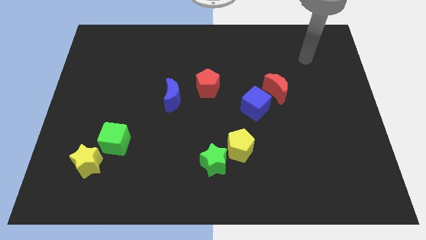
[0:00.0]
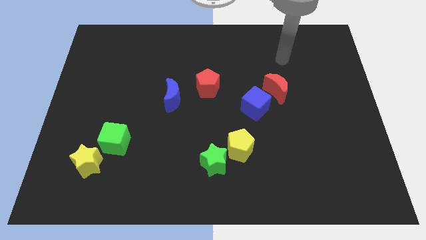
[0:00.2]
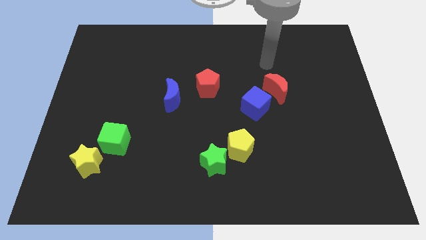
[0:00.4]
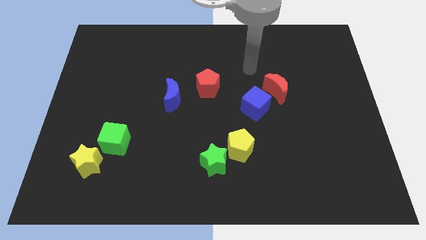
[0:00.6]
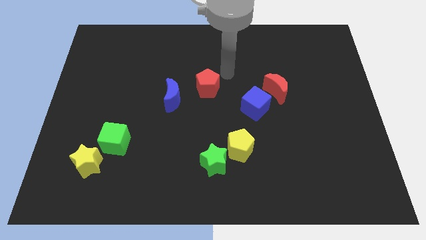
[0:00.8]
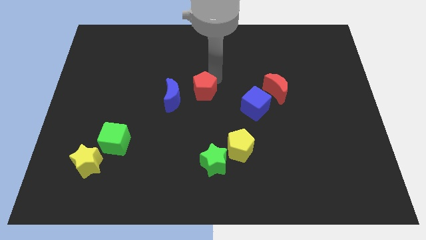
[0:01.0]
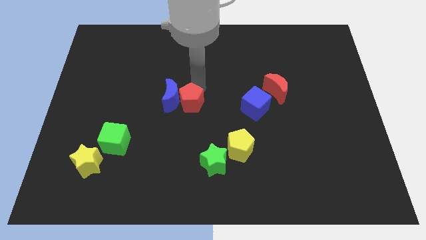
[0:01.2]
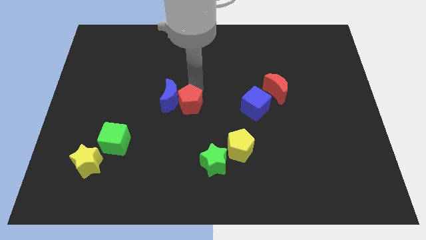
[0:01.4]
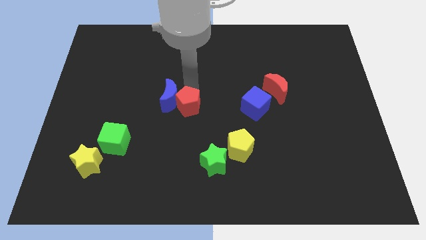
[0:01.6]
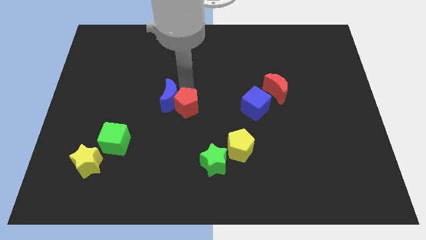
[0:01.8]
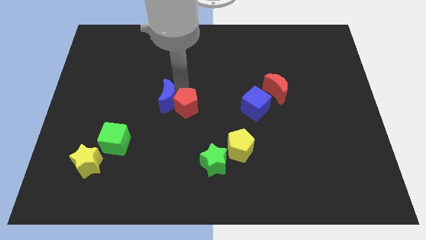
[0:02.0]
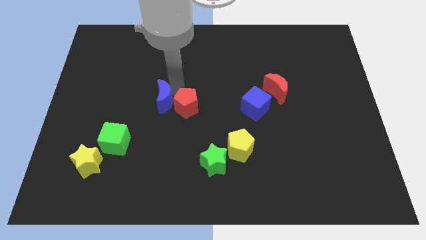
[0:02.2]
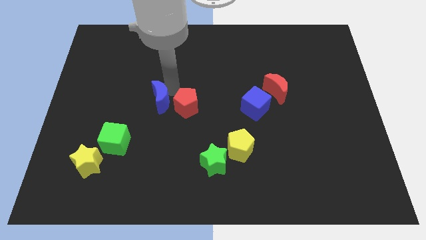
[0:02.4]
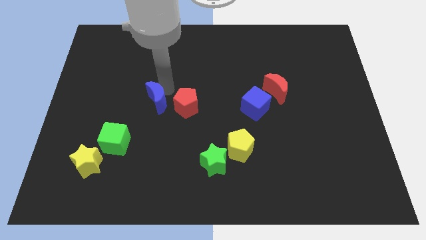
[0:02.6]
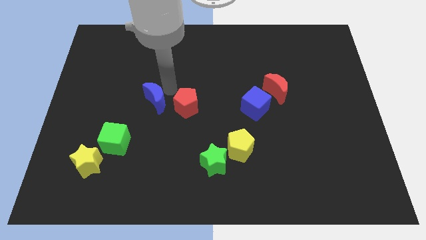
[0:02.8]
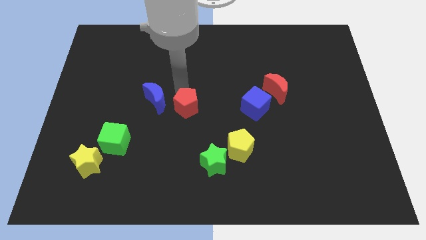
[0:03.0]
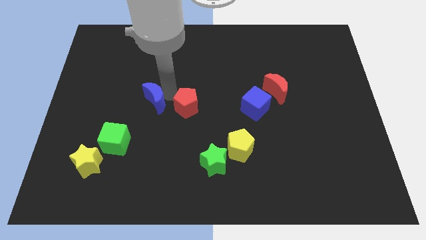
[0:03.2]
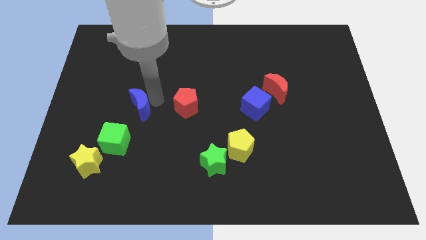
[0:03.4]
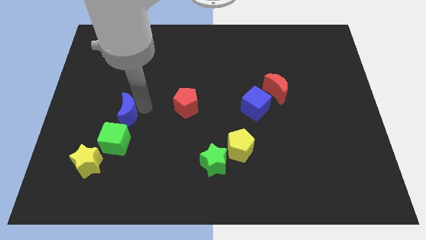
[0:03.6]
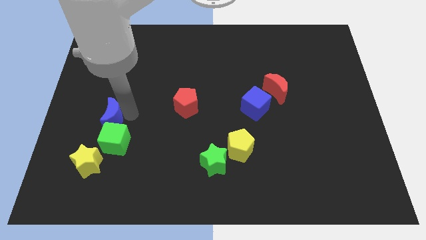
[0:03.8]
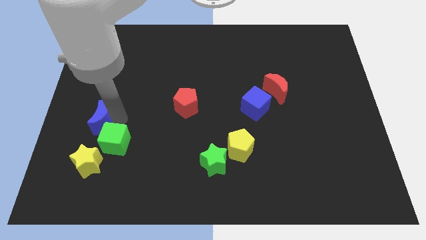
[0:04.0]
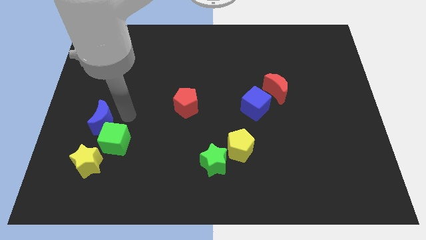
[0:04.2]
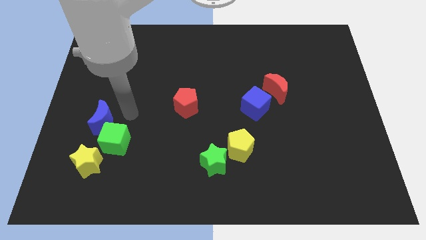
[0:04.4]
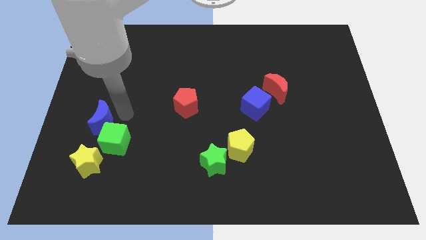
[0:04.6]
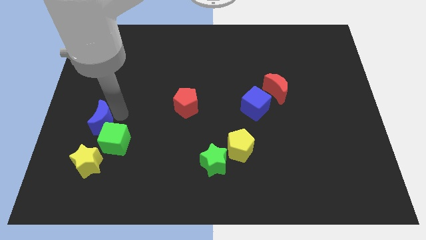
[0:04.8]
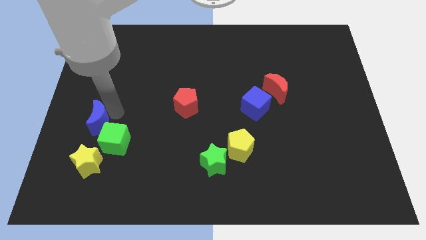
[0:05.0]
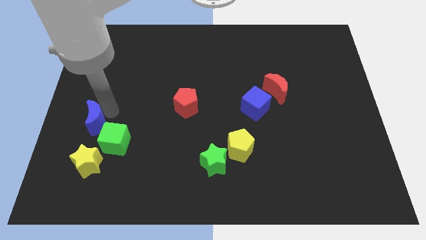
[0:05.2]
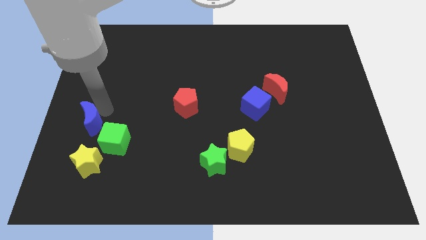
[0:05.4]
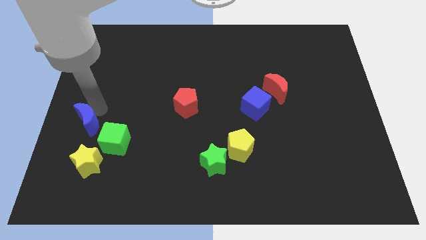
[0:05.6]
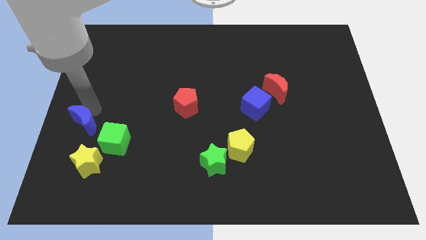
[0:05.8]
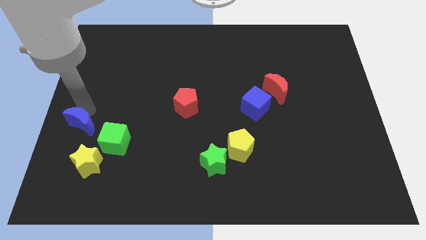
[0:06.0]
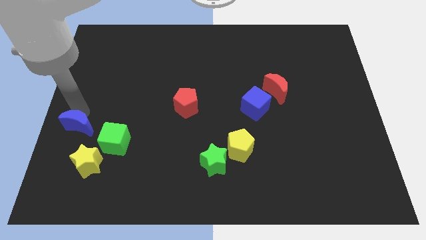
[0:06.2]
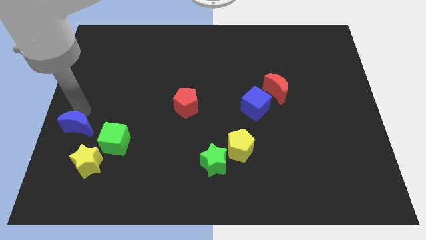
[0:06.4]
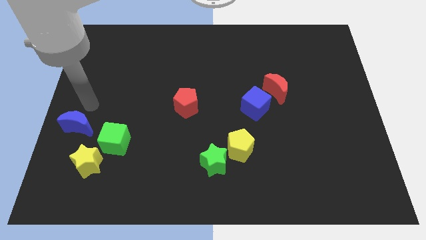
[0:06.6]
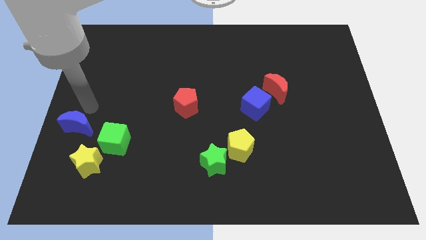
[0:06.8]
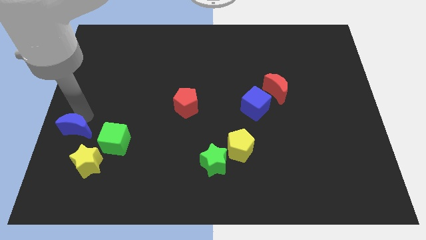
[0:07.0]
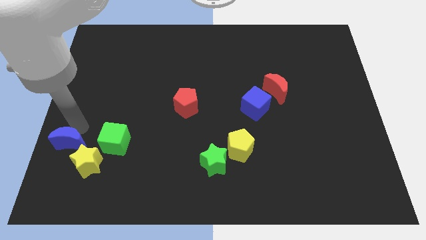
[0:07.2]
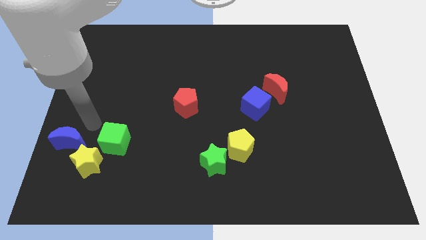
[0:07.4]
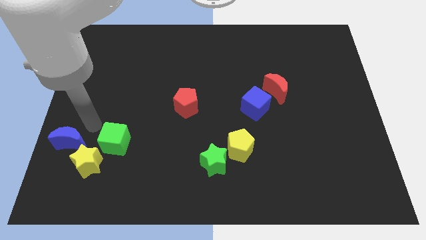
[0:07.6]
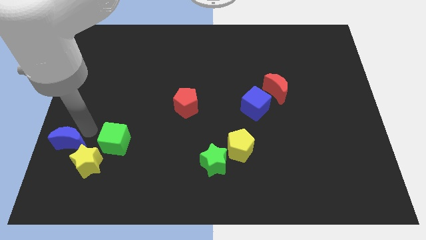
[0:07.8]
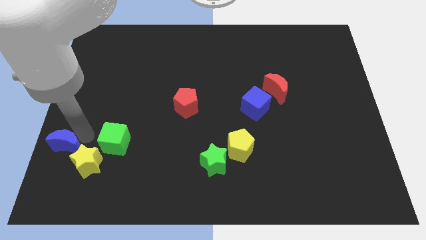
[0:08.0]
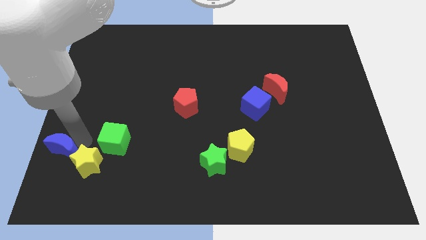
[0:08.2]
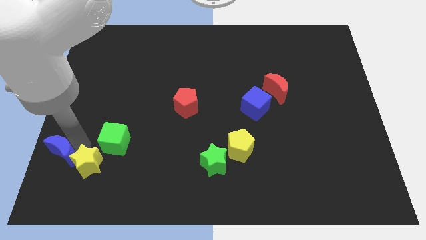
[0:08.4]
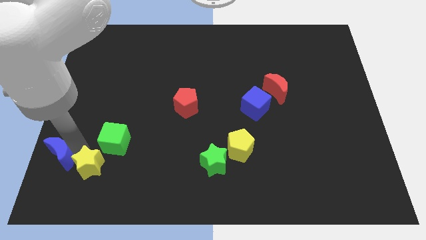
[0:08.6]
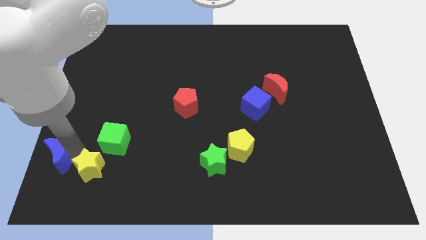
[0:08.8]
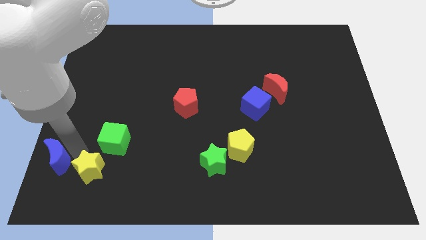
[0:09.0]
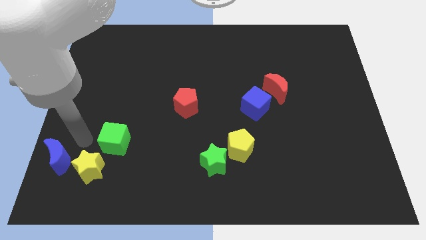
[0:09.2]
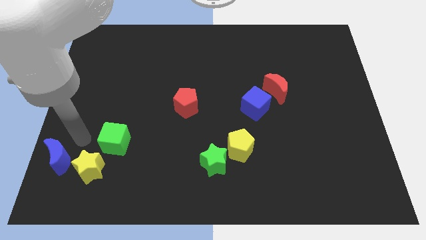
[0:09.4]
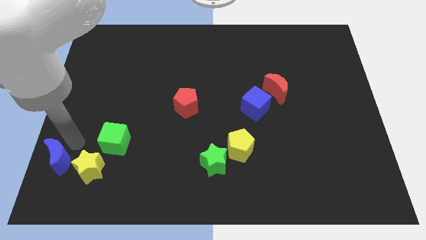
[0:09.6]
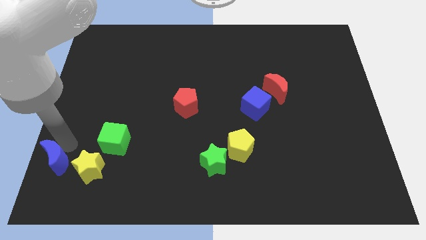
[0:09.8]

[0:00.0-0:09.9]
move the blue moon to the bottom left

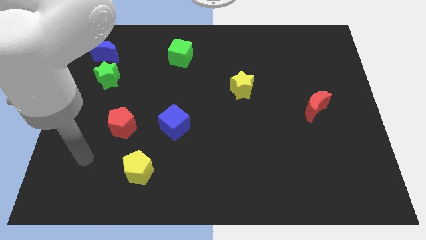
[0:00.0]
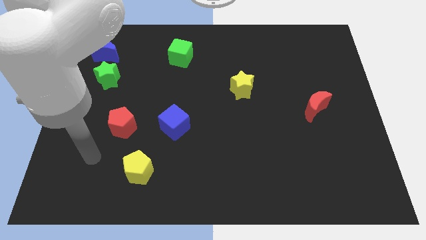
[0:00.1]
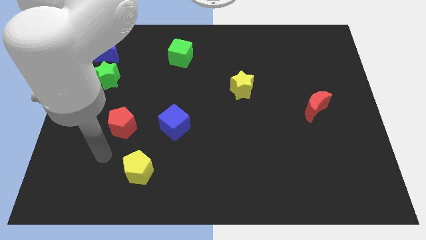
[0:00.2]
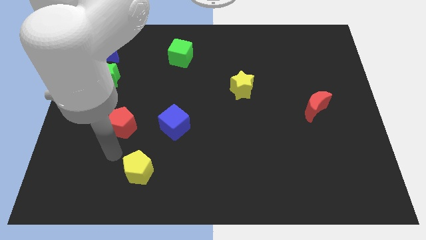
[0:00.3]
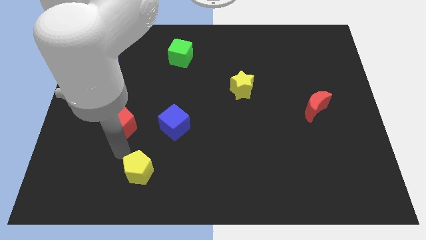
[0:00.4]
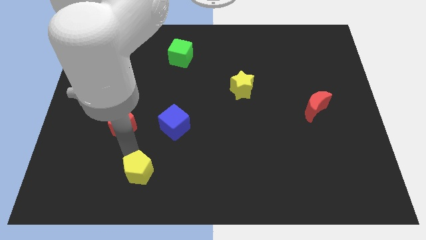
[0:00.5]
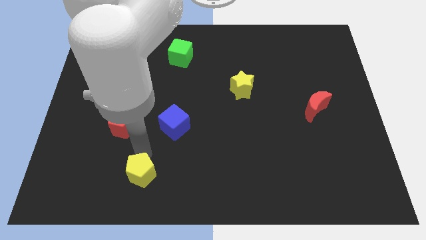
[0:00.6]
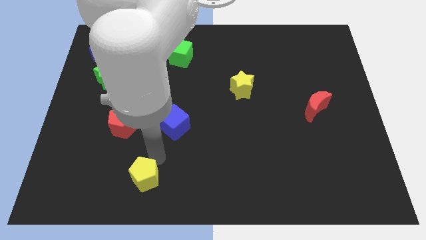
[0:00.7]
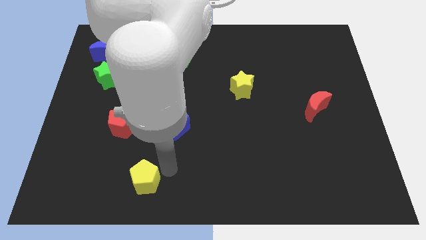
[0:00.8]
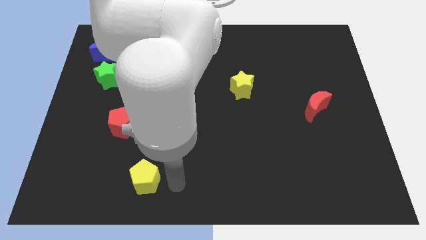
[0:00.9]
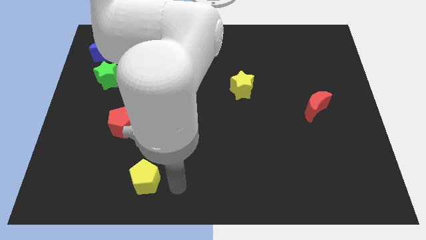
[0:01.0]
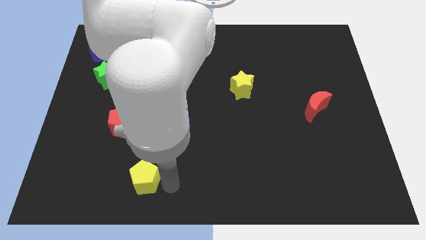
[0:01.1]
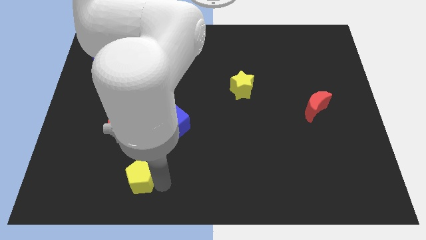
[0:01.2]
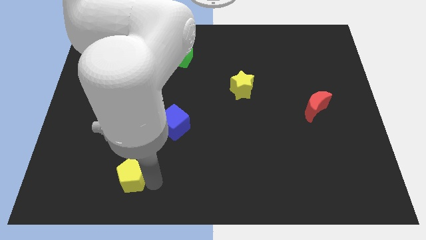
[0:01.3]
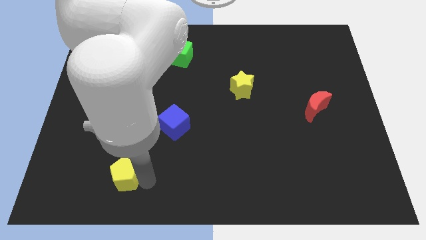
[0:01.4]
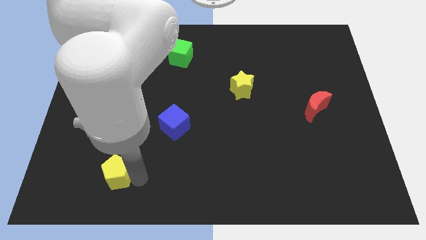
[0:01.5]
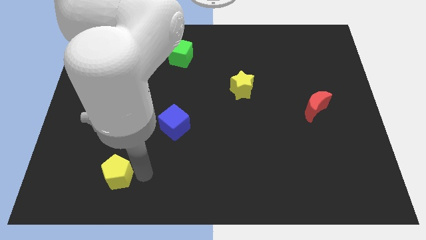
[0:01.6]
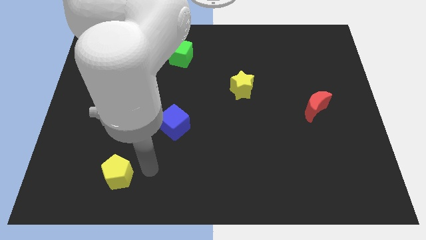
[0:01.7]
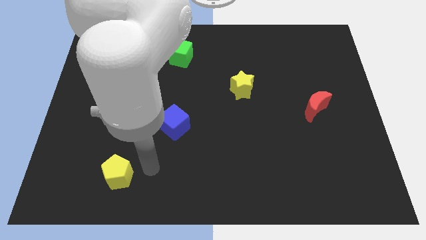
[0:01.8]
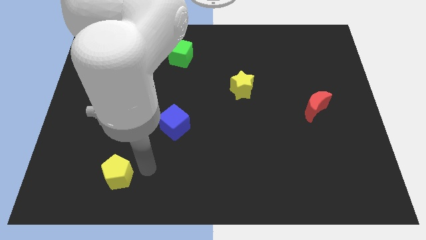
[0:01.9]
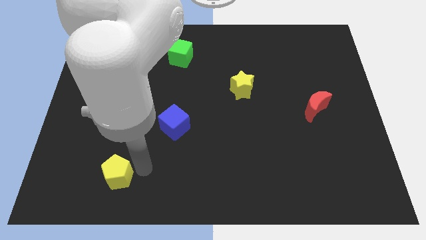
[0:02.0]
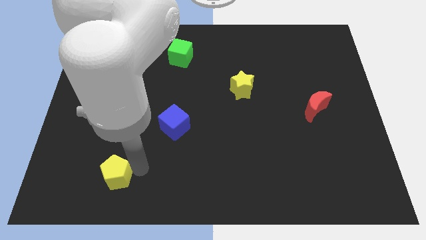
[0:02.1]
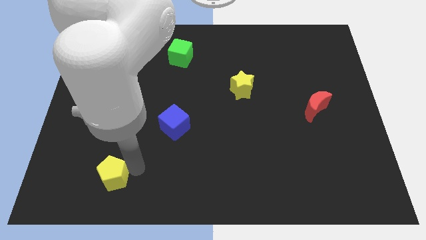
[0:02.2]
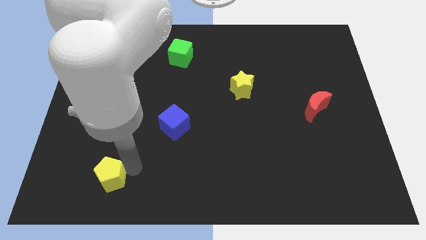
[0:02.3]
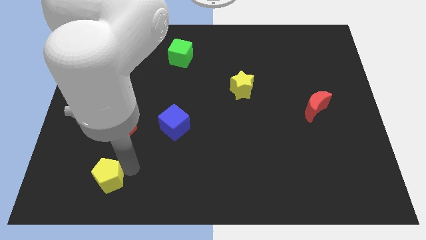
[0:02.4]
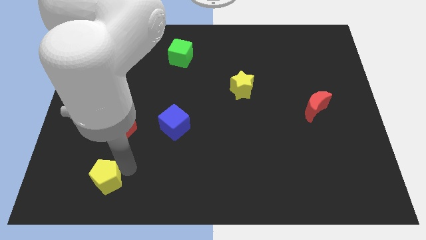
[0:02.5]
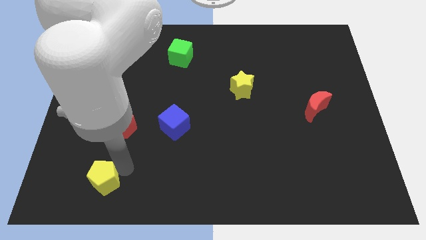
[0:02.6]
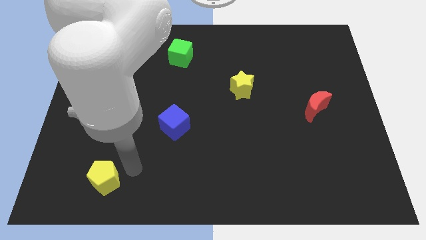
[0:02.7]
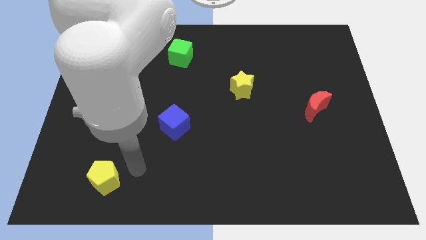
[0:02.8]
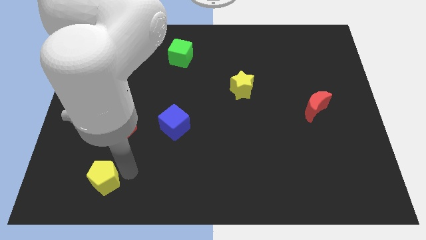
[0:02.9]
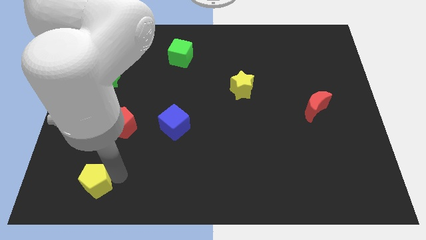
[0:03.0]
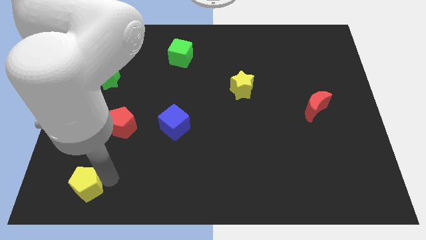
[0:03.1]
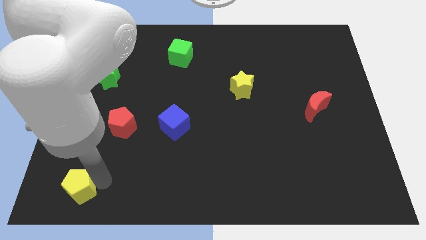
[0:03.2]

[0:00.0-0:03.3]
push the yellow pentagon to the bottom left corner
